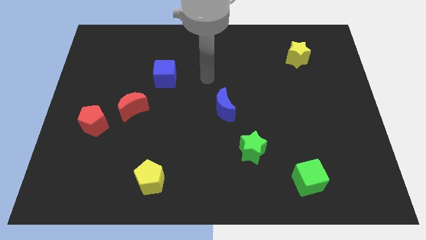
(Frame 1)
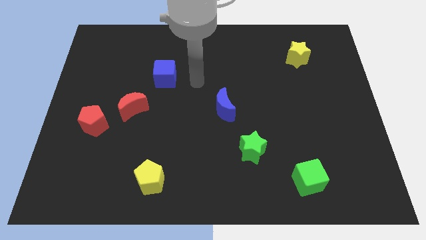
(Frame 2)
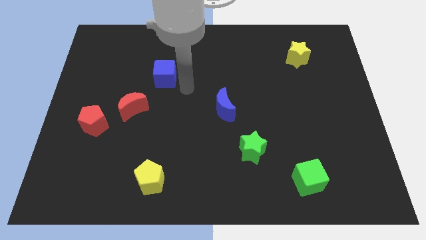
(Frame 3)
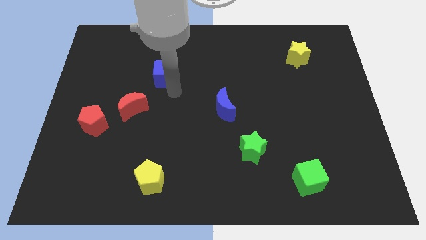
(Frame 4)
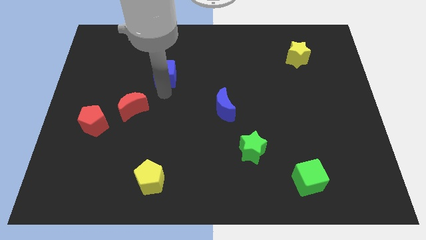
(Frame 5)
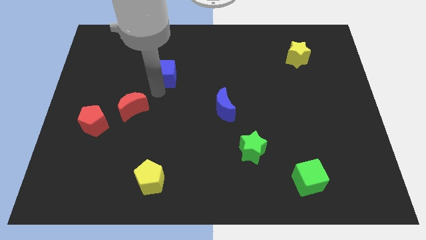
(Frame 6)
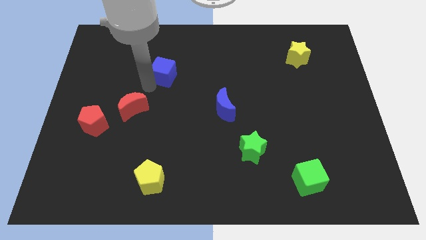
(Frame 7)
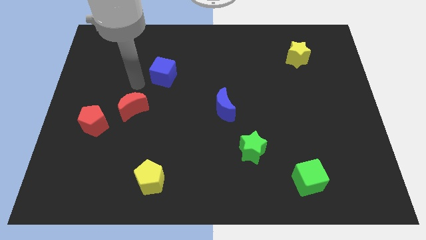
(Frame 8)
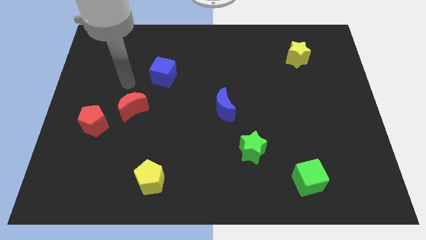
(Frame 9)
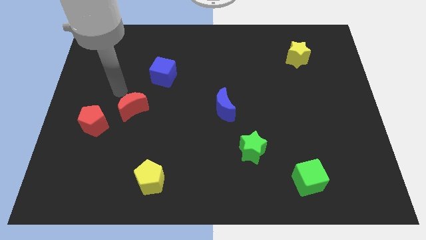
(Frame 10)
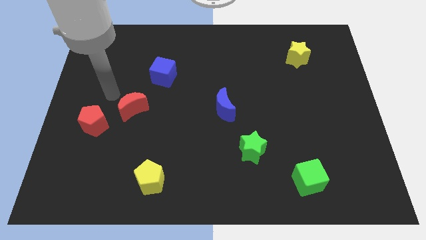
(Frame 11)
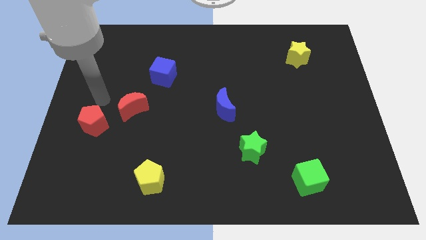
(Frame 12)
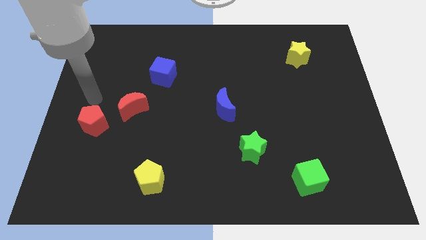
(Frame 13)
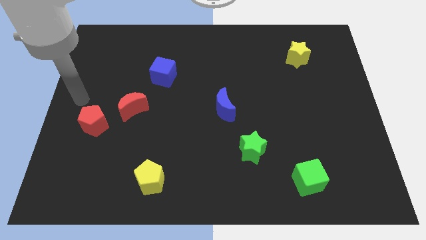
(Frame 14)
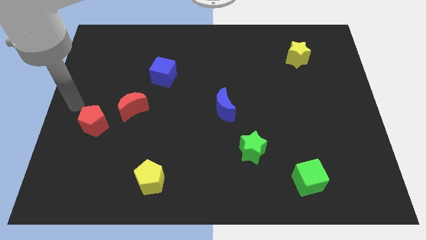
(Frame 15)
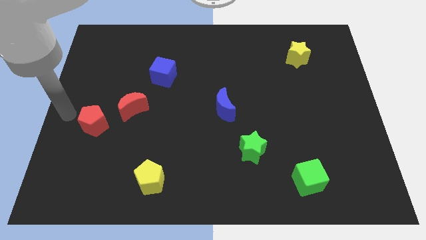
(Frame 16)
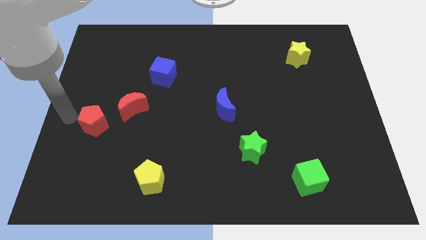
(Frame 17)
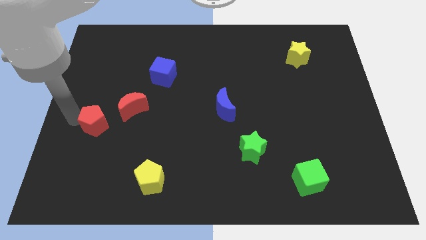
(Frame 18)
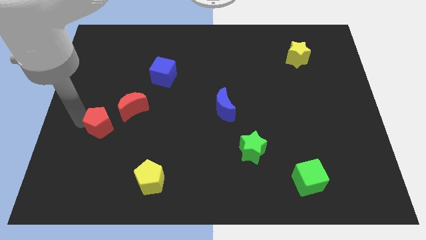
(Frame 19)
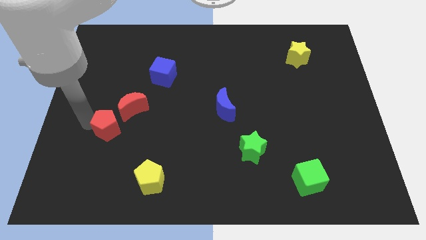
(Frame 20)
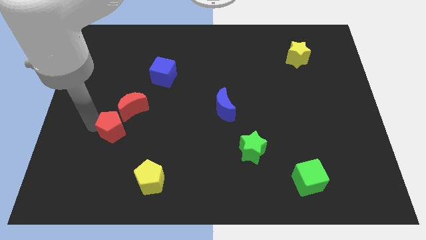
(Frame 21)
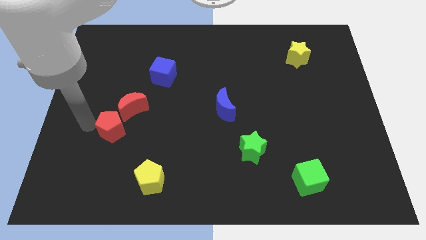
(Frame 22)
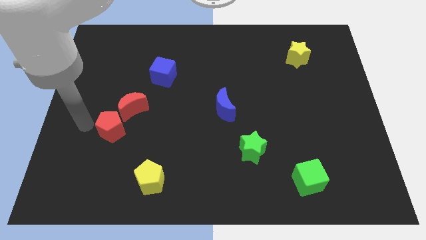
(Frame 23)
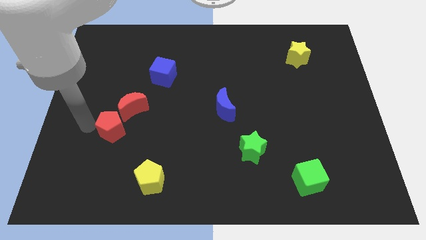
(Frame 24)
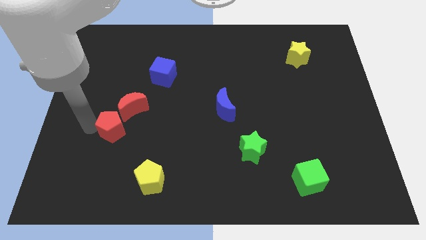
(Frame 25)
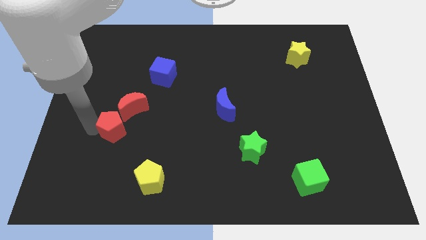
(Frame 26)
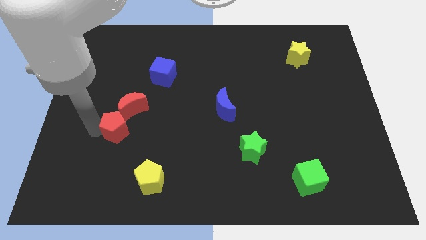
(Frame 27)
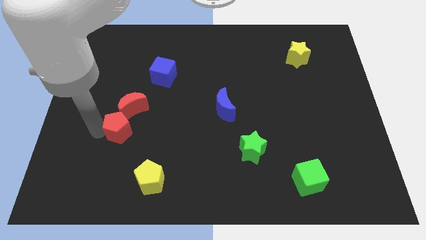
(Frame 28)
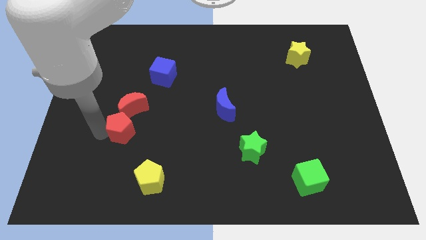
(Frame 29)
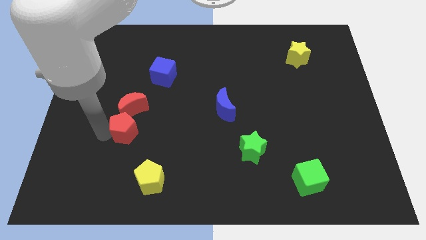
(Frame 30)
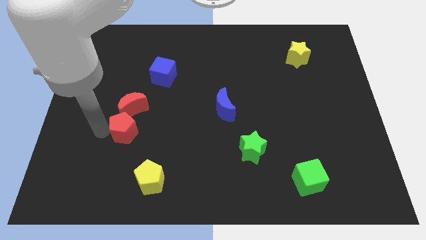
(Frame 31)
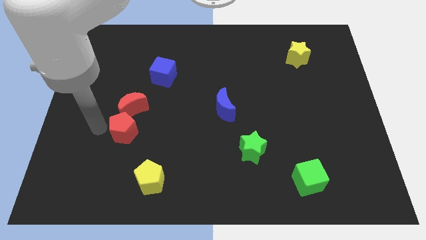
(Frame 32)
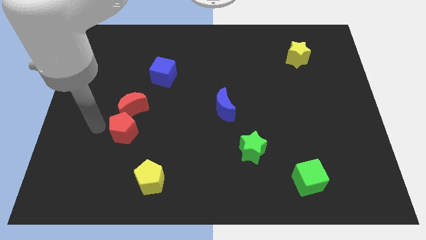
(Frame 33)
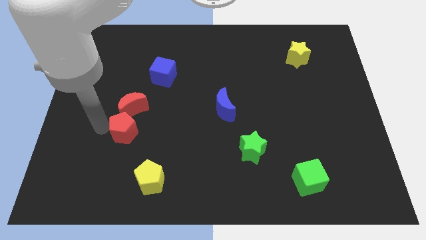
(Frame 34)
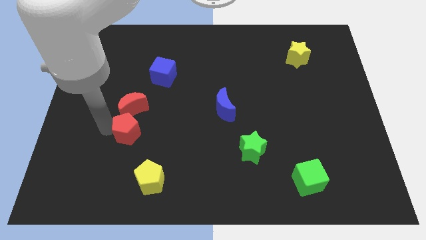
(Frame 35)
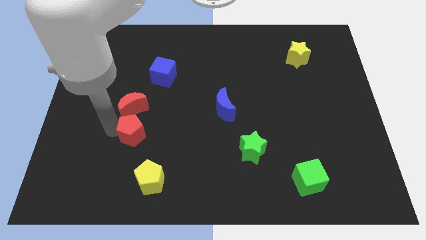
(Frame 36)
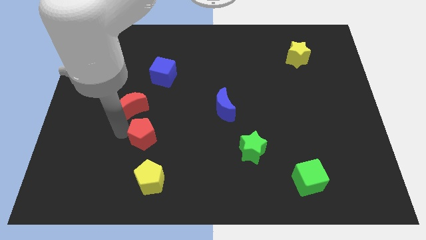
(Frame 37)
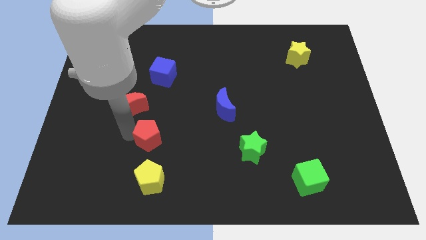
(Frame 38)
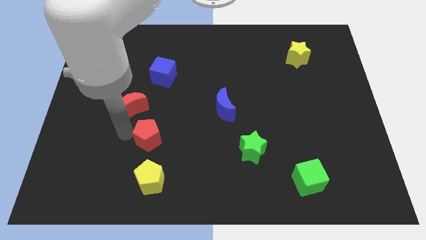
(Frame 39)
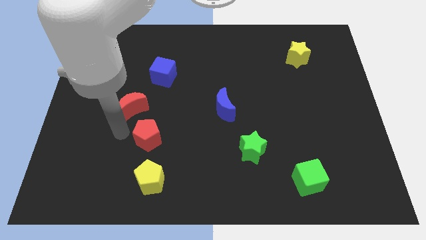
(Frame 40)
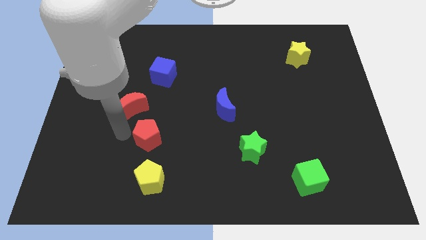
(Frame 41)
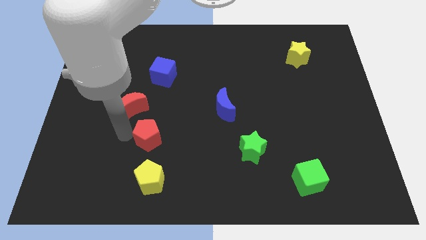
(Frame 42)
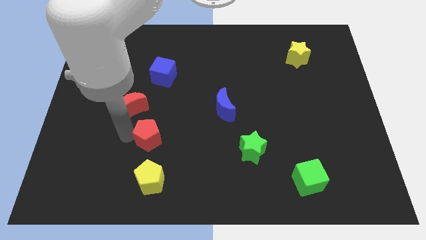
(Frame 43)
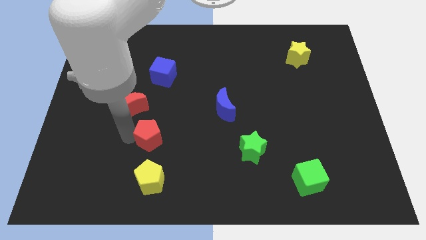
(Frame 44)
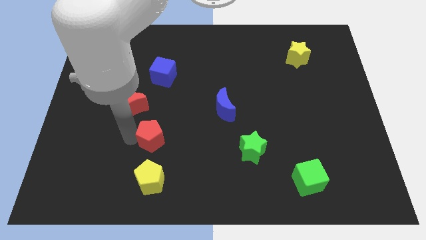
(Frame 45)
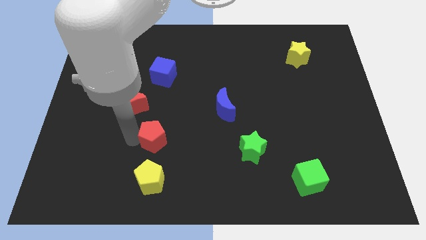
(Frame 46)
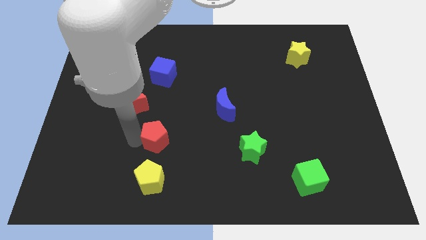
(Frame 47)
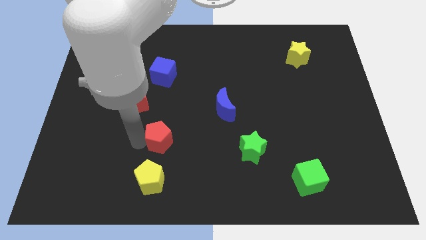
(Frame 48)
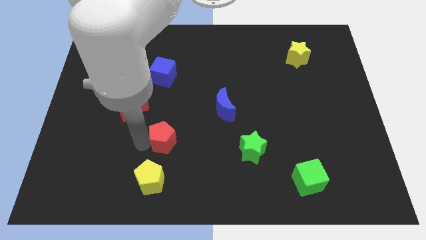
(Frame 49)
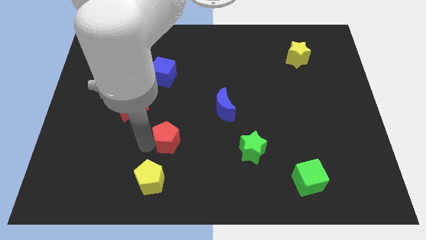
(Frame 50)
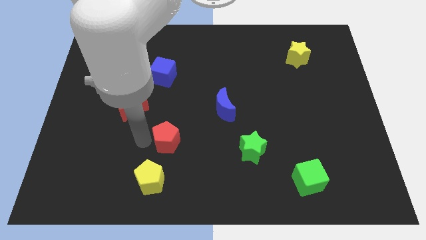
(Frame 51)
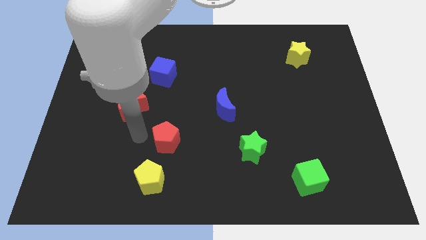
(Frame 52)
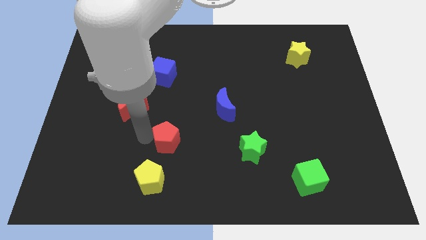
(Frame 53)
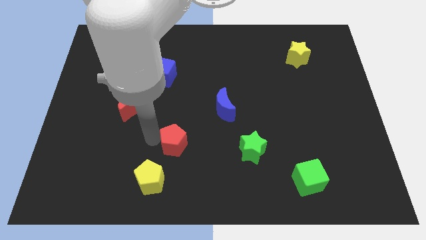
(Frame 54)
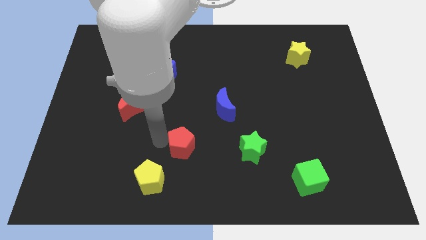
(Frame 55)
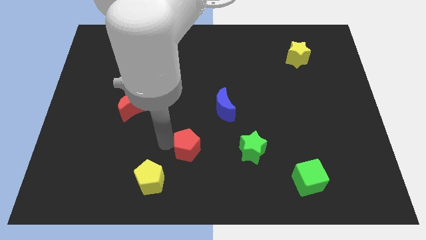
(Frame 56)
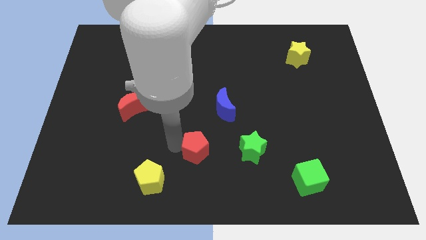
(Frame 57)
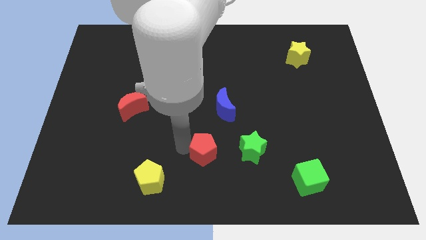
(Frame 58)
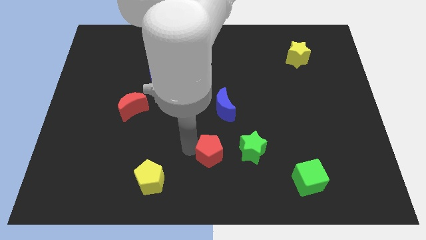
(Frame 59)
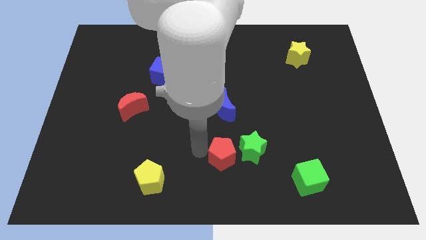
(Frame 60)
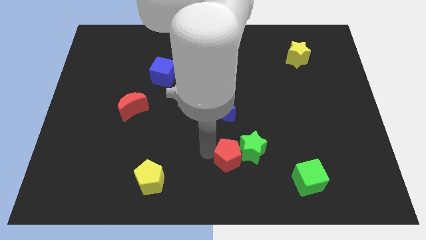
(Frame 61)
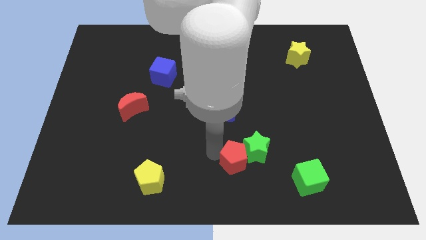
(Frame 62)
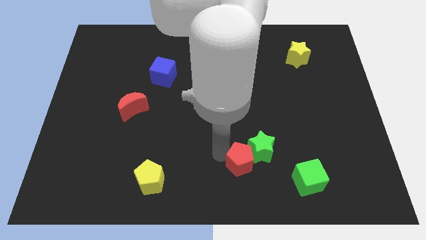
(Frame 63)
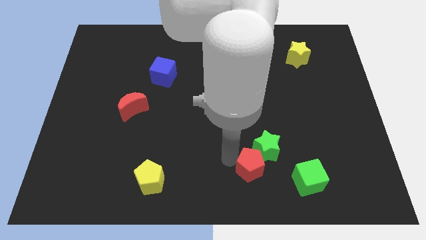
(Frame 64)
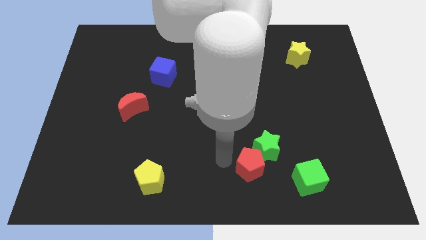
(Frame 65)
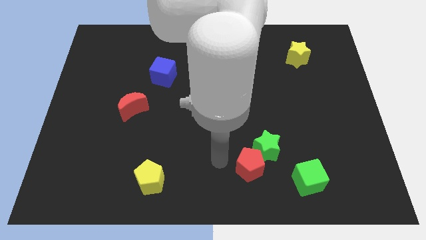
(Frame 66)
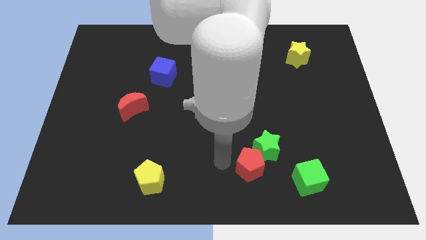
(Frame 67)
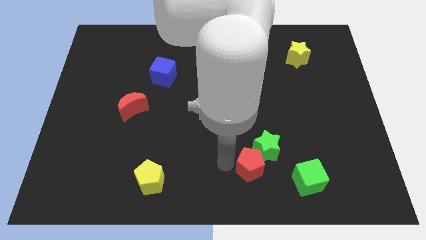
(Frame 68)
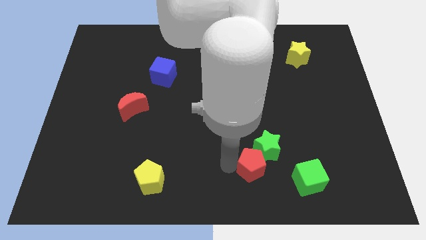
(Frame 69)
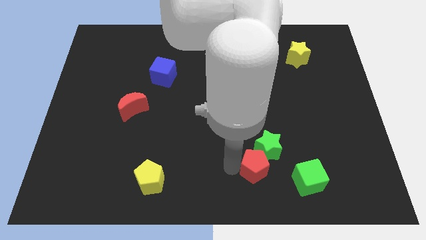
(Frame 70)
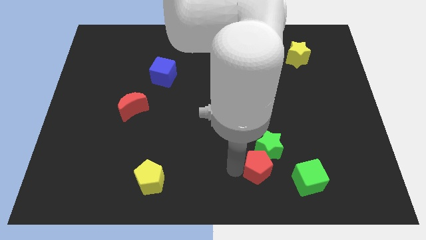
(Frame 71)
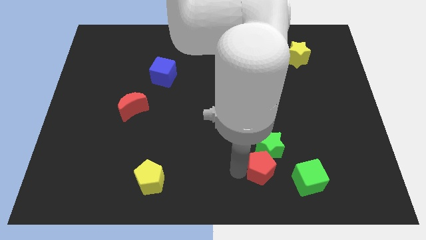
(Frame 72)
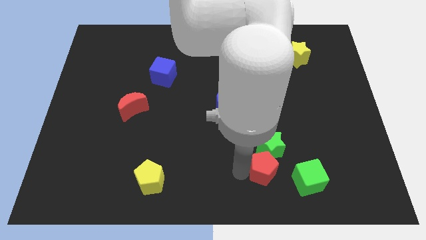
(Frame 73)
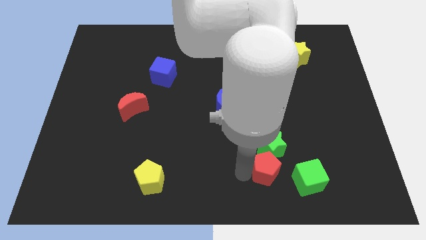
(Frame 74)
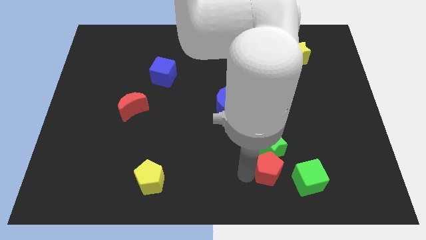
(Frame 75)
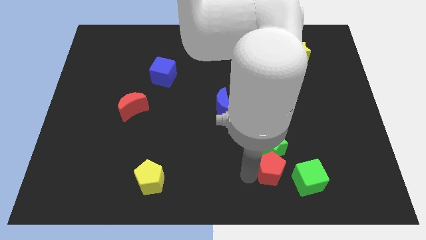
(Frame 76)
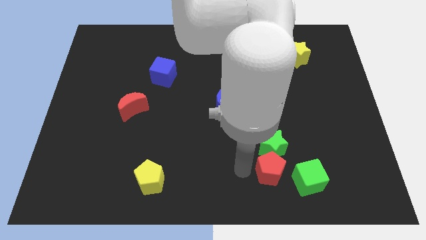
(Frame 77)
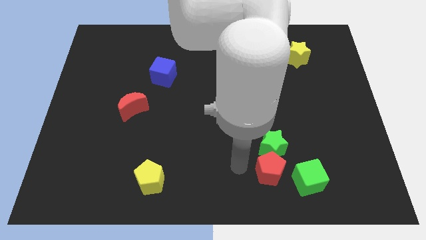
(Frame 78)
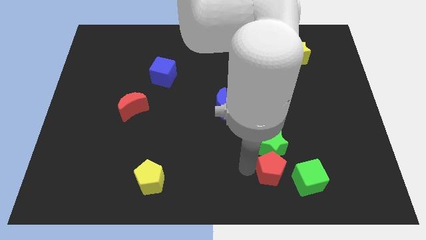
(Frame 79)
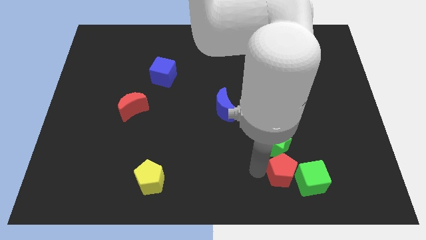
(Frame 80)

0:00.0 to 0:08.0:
move the red pentagon towards the green cube
